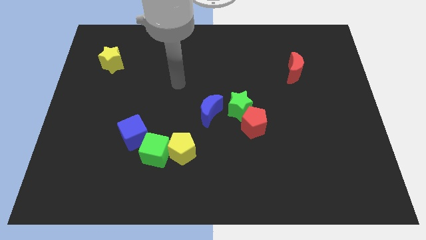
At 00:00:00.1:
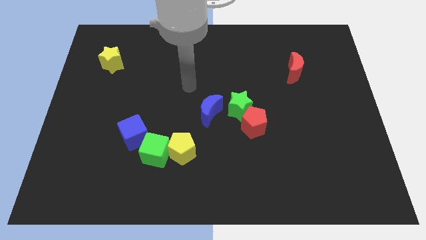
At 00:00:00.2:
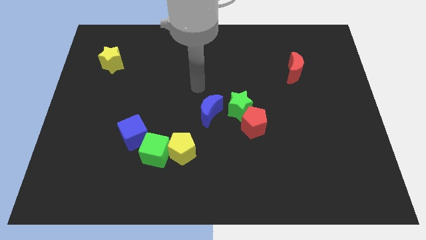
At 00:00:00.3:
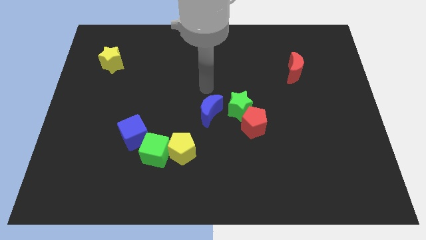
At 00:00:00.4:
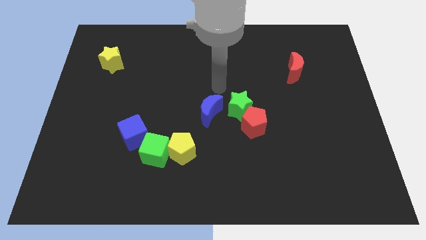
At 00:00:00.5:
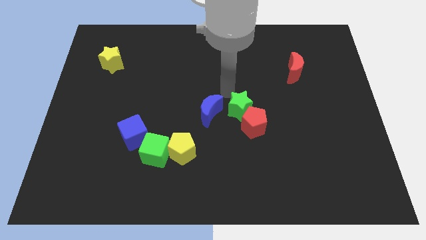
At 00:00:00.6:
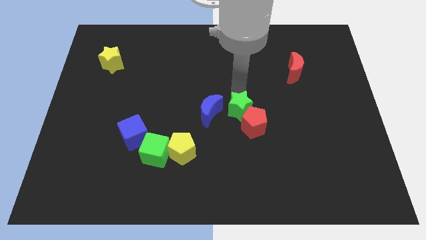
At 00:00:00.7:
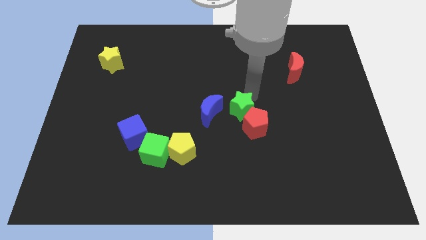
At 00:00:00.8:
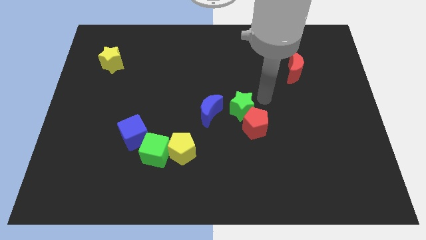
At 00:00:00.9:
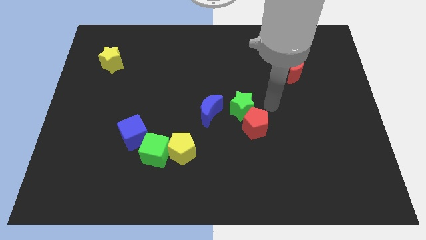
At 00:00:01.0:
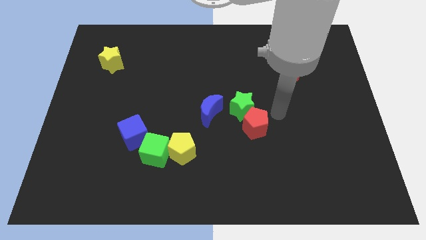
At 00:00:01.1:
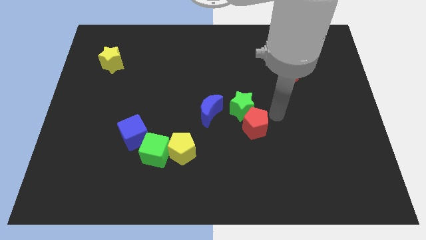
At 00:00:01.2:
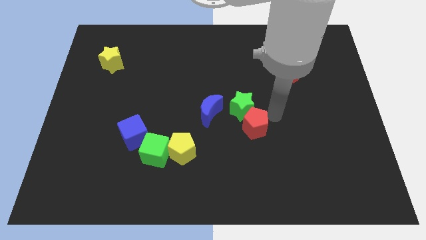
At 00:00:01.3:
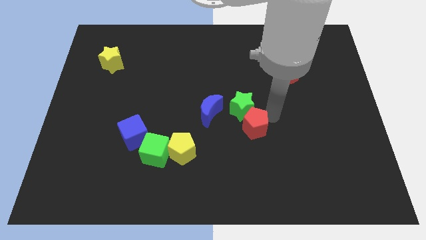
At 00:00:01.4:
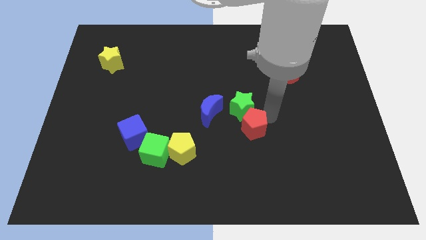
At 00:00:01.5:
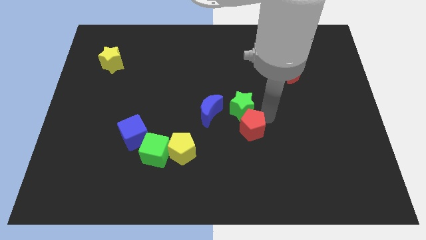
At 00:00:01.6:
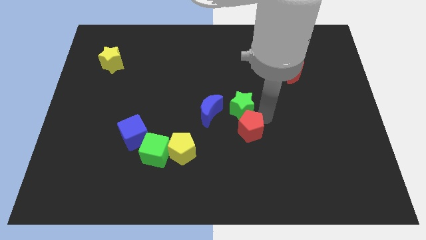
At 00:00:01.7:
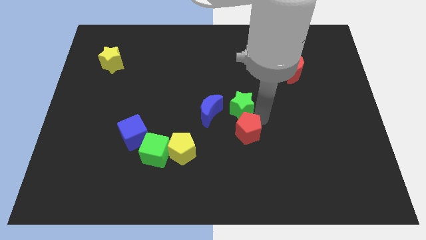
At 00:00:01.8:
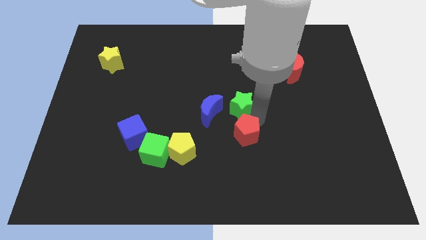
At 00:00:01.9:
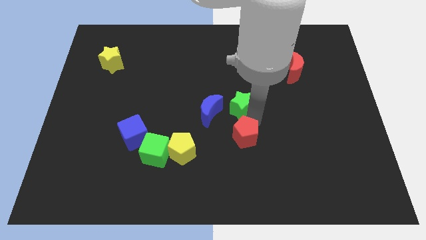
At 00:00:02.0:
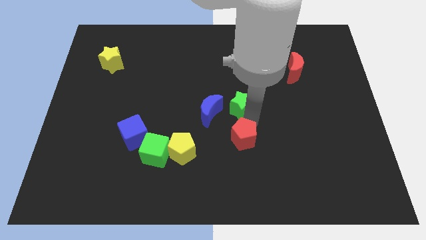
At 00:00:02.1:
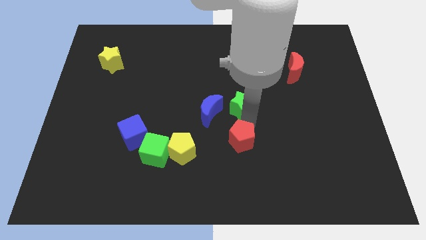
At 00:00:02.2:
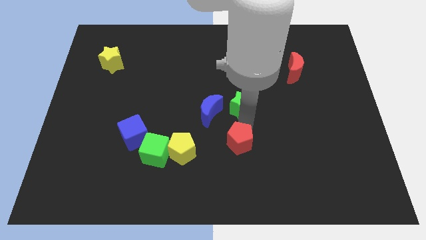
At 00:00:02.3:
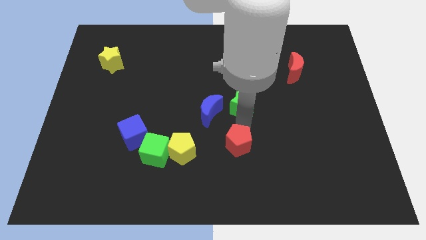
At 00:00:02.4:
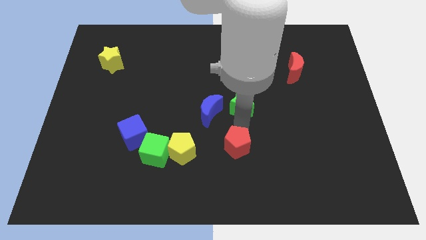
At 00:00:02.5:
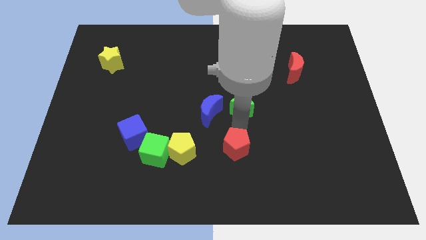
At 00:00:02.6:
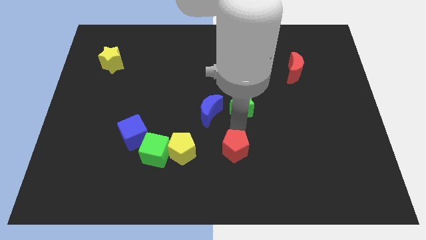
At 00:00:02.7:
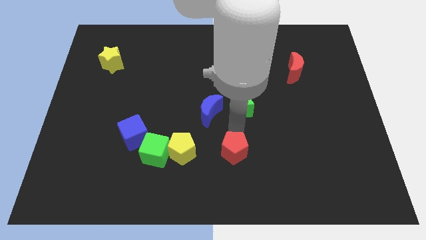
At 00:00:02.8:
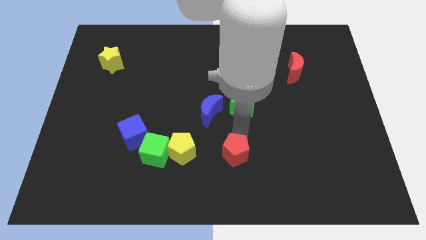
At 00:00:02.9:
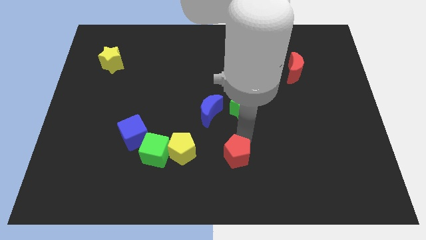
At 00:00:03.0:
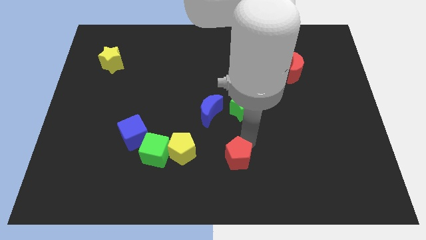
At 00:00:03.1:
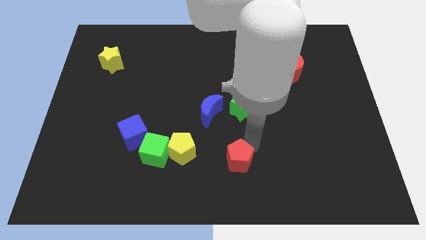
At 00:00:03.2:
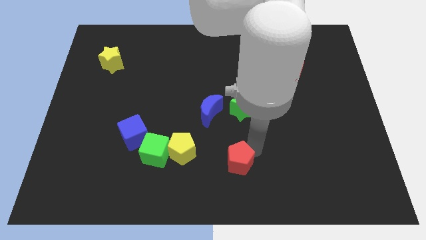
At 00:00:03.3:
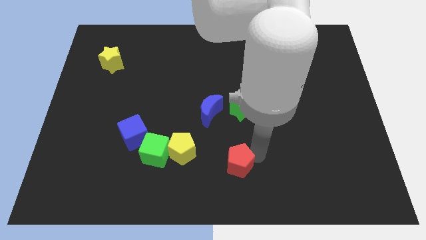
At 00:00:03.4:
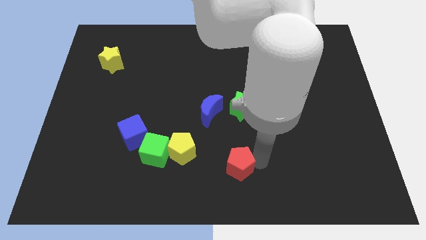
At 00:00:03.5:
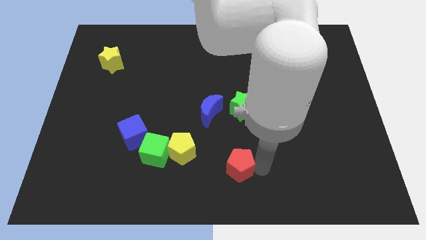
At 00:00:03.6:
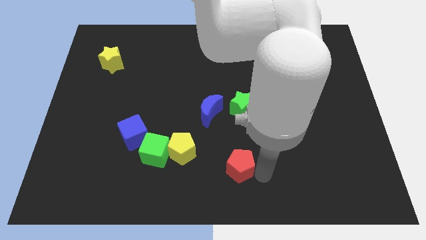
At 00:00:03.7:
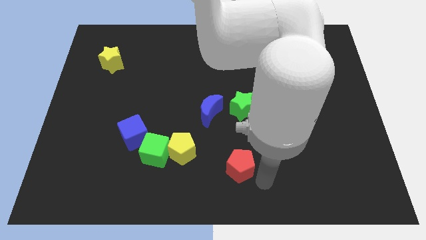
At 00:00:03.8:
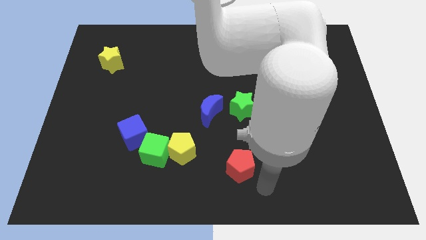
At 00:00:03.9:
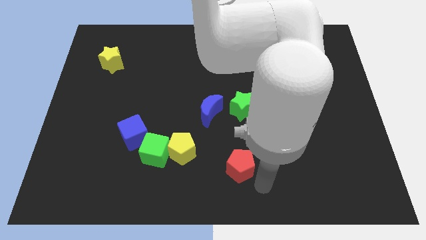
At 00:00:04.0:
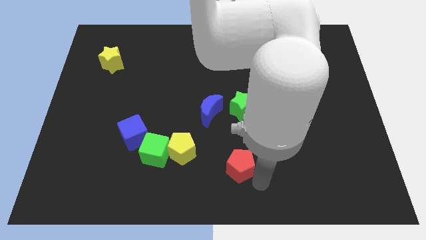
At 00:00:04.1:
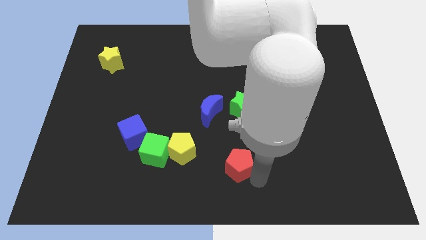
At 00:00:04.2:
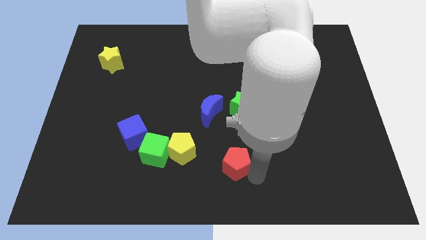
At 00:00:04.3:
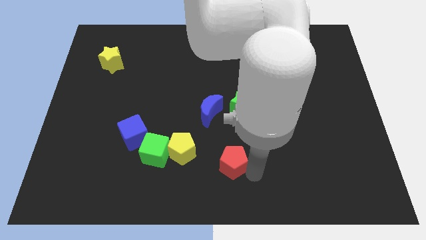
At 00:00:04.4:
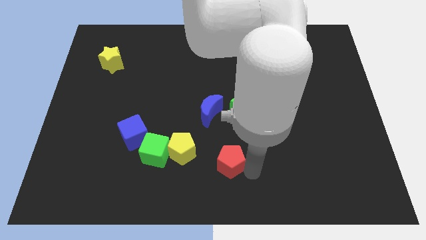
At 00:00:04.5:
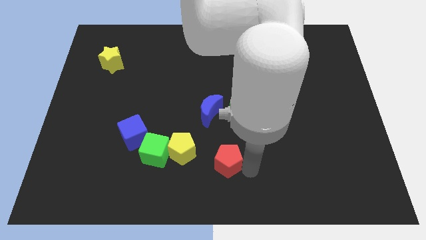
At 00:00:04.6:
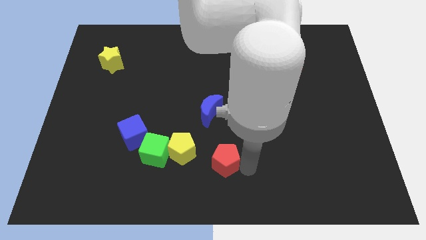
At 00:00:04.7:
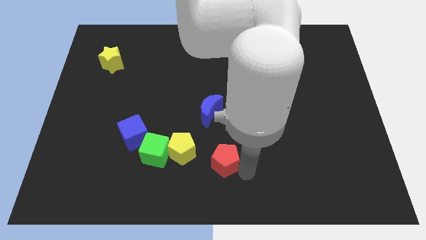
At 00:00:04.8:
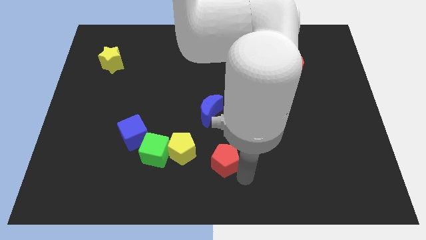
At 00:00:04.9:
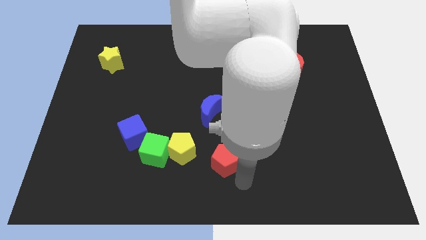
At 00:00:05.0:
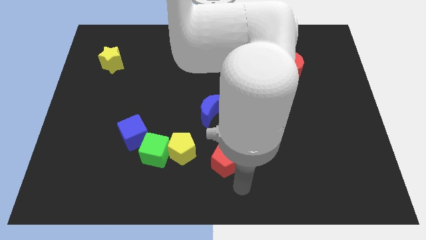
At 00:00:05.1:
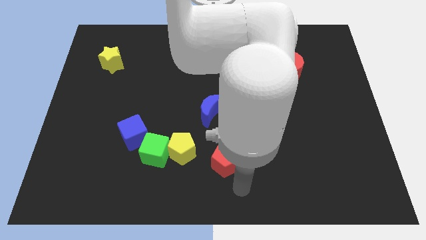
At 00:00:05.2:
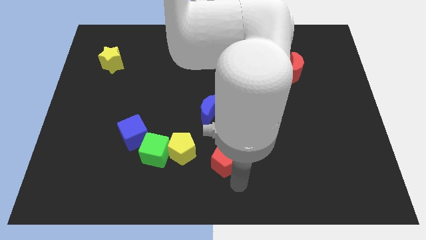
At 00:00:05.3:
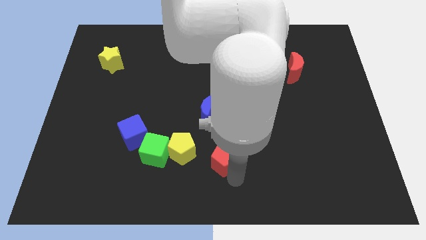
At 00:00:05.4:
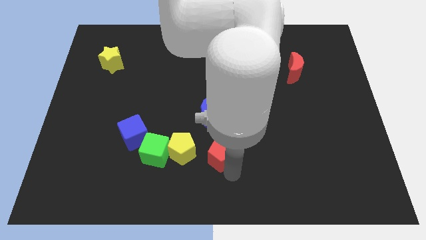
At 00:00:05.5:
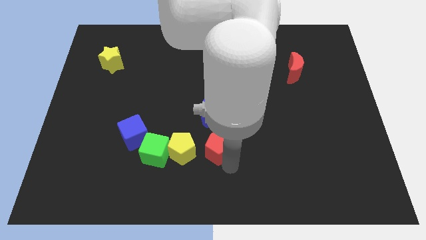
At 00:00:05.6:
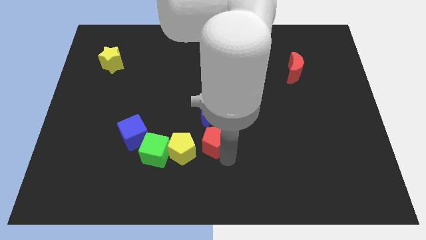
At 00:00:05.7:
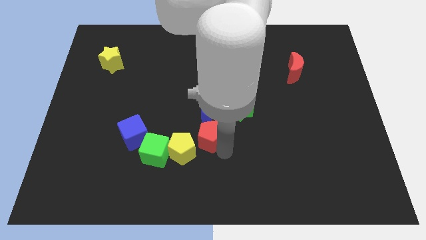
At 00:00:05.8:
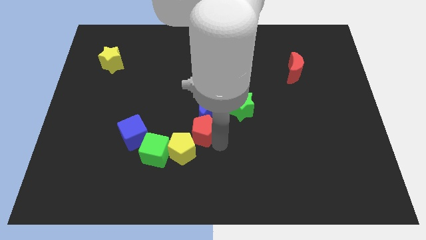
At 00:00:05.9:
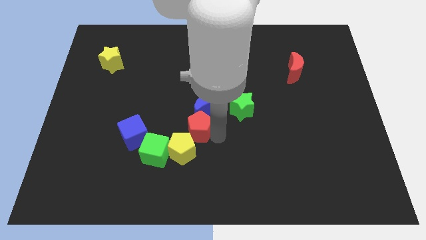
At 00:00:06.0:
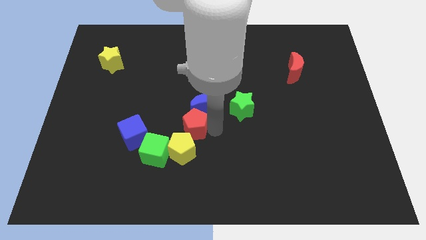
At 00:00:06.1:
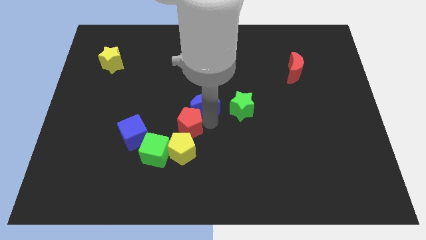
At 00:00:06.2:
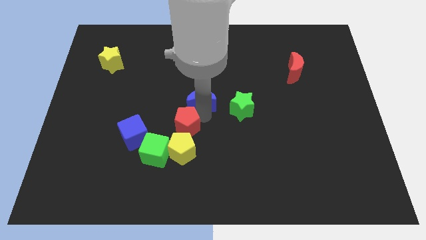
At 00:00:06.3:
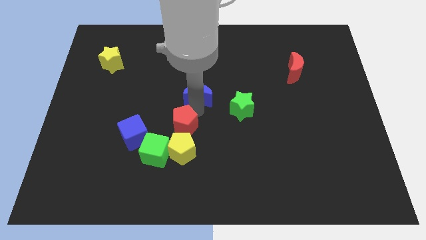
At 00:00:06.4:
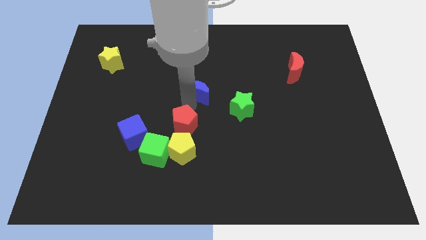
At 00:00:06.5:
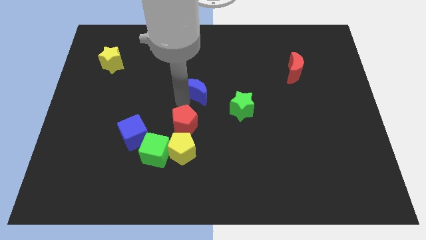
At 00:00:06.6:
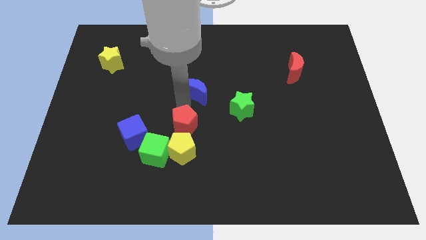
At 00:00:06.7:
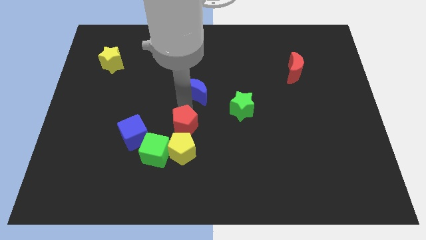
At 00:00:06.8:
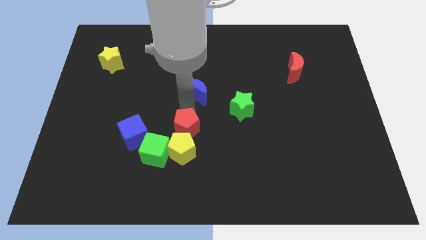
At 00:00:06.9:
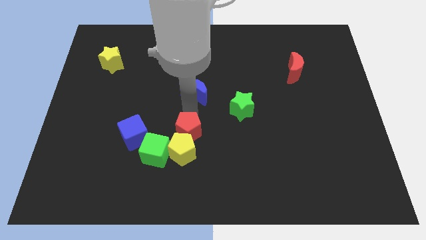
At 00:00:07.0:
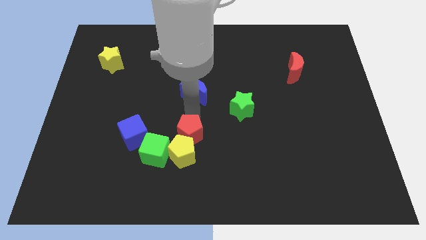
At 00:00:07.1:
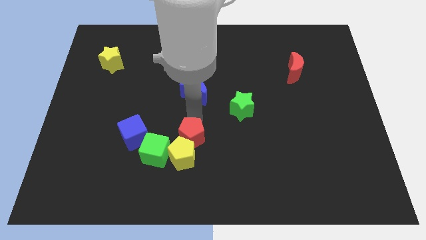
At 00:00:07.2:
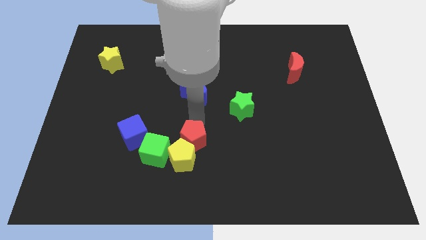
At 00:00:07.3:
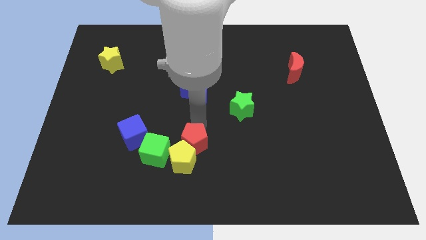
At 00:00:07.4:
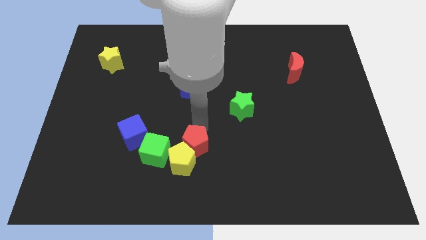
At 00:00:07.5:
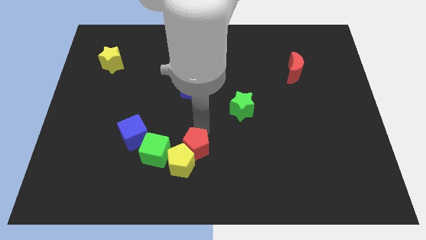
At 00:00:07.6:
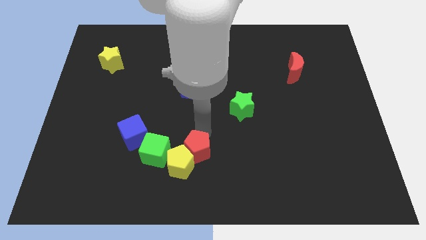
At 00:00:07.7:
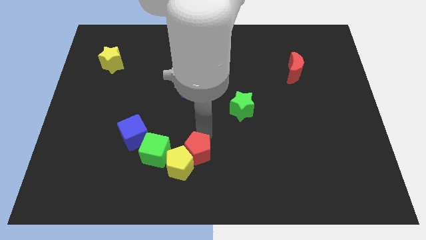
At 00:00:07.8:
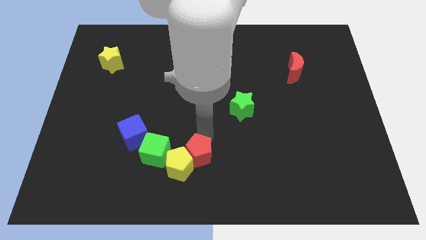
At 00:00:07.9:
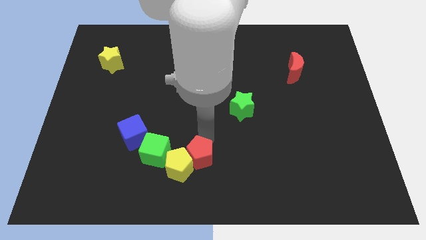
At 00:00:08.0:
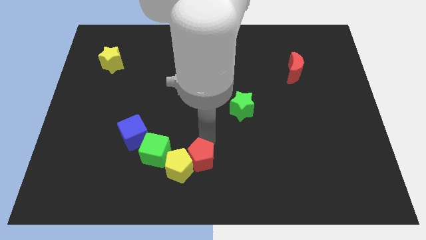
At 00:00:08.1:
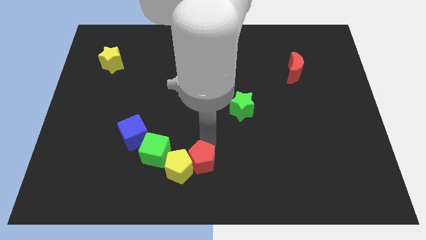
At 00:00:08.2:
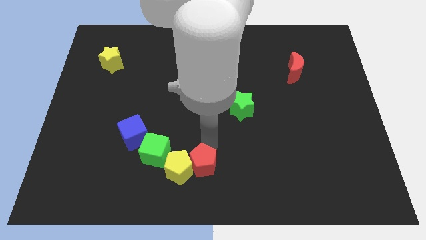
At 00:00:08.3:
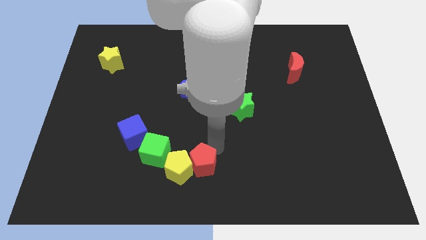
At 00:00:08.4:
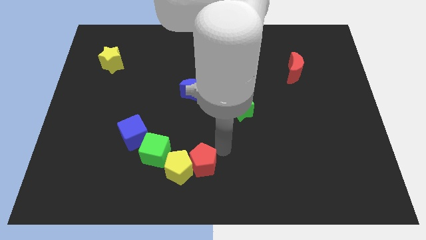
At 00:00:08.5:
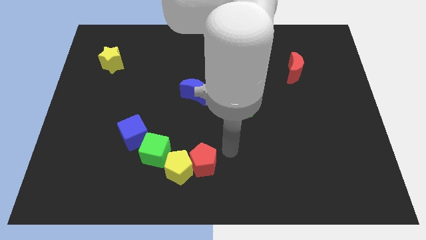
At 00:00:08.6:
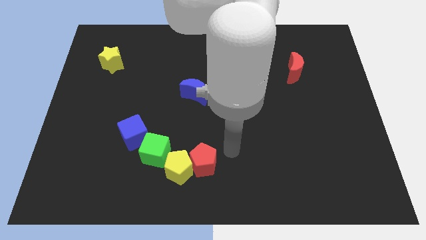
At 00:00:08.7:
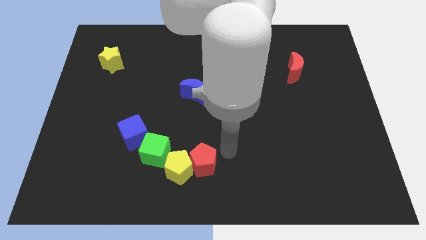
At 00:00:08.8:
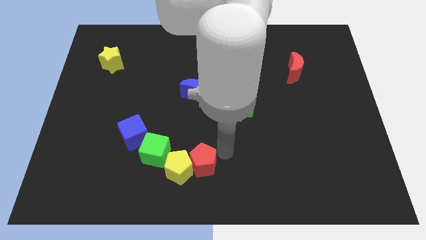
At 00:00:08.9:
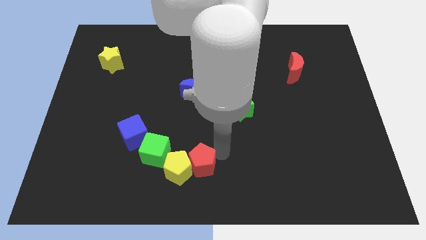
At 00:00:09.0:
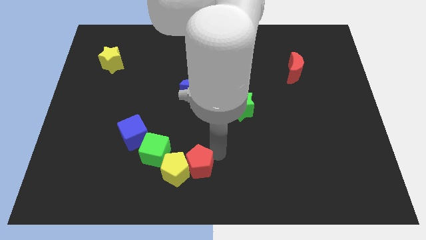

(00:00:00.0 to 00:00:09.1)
slide the red pentagon to the bottom right of the green cube
